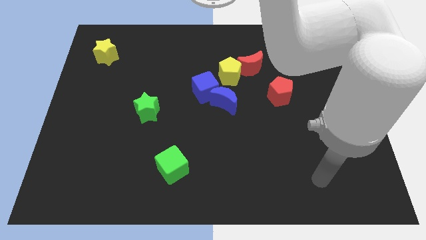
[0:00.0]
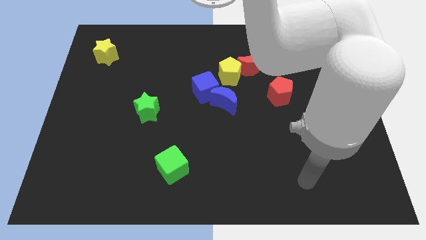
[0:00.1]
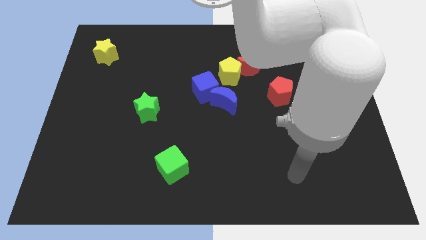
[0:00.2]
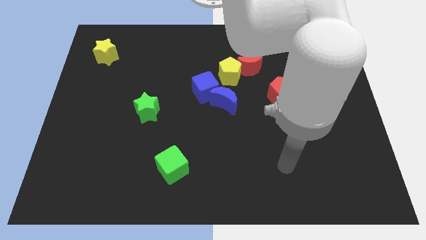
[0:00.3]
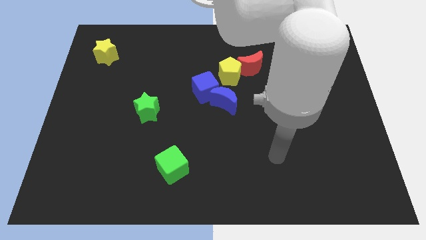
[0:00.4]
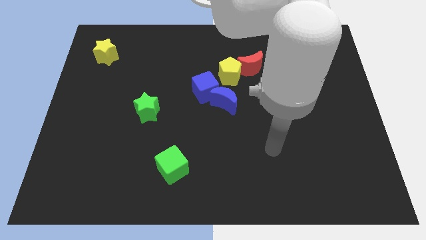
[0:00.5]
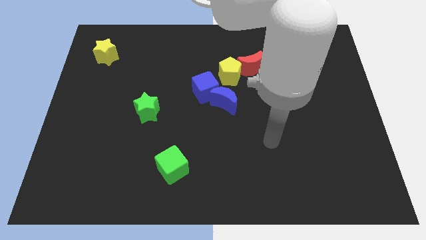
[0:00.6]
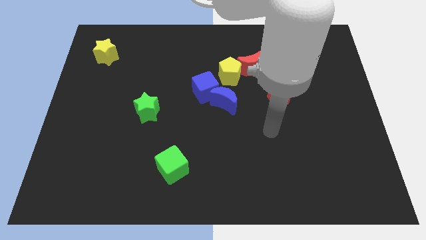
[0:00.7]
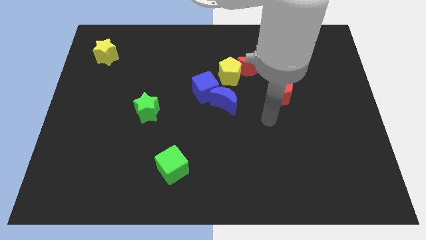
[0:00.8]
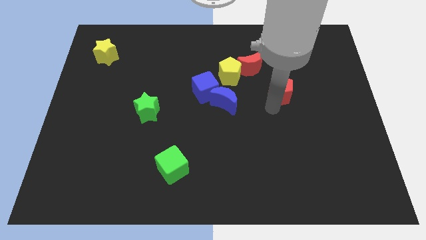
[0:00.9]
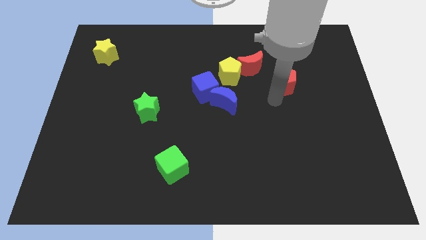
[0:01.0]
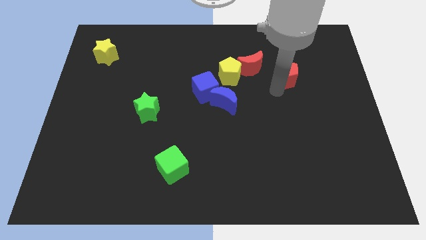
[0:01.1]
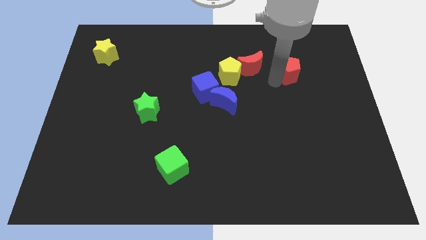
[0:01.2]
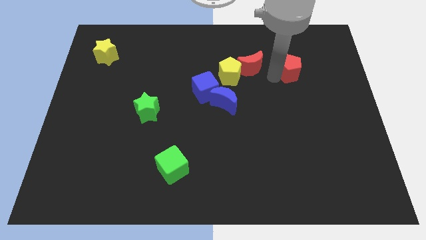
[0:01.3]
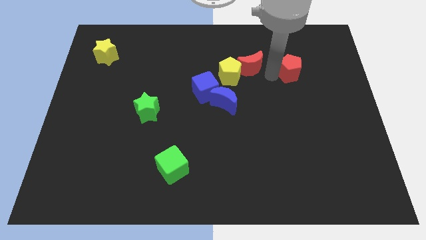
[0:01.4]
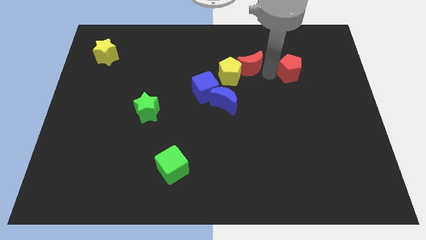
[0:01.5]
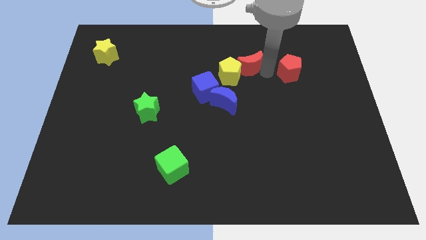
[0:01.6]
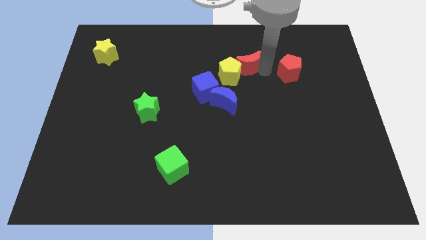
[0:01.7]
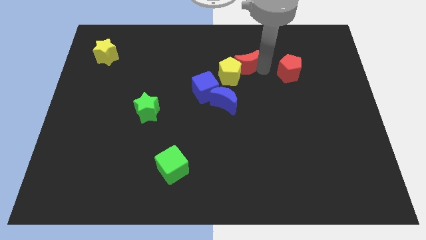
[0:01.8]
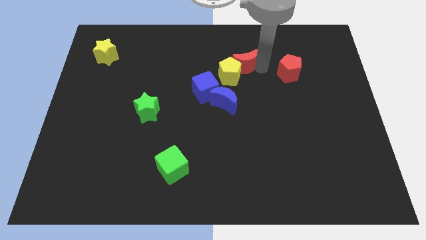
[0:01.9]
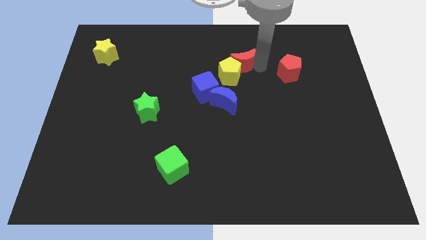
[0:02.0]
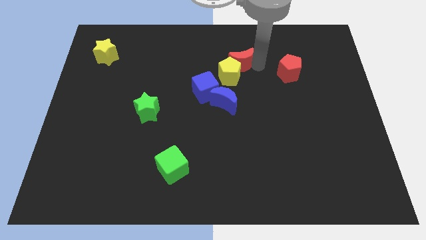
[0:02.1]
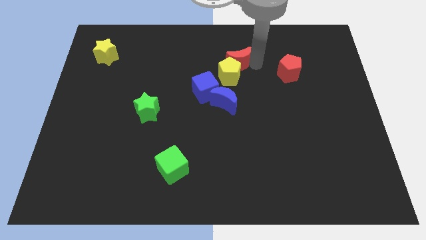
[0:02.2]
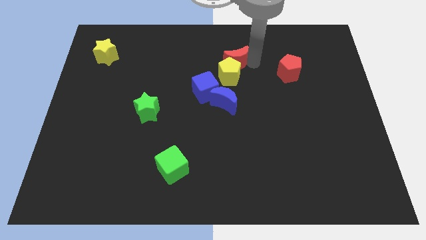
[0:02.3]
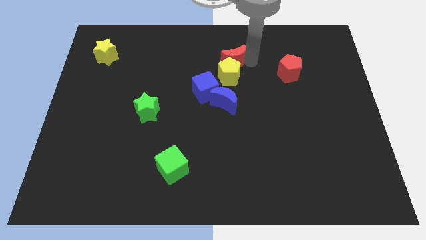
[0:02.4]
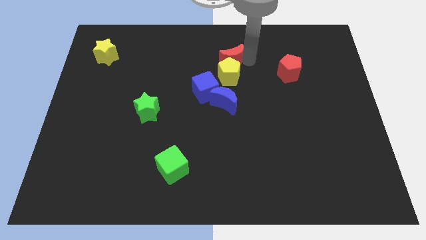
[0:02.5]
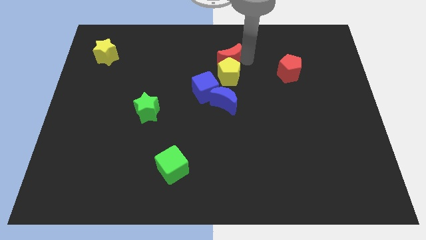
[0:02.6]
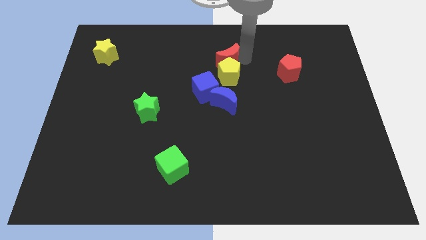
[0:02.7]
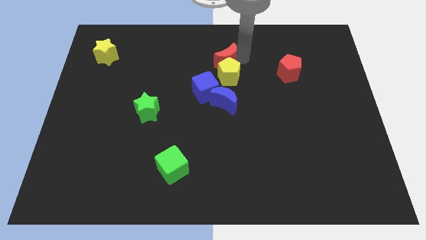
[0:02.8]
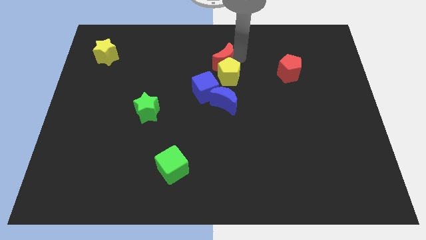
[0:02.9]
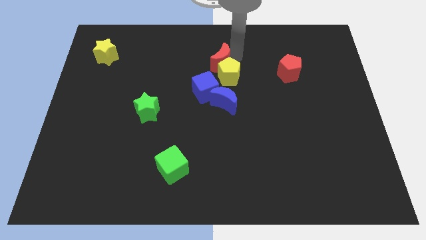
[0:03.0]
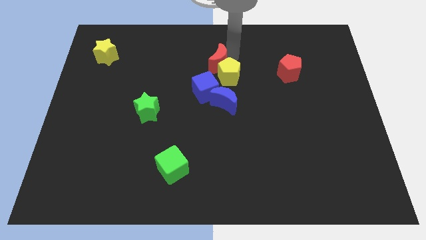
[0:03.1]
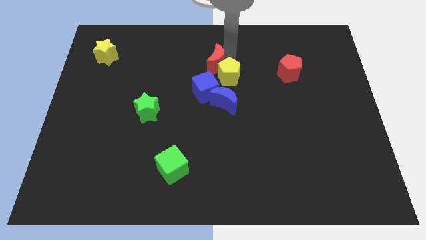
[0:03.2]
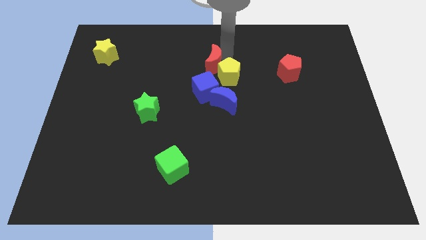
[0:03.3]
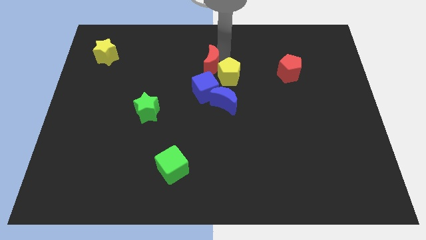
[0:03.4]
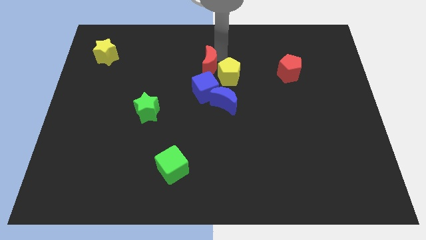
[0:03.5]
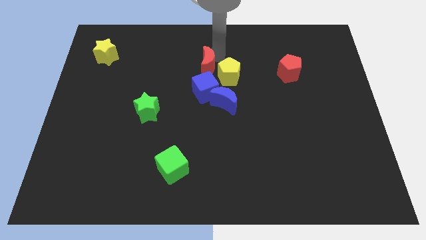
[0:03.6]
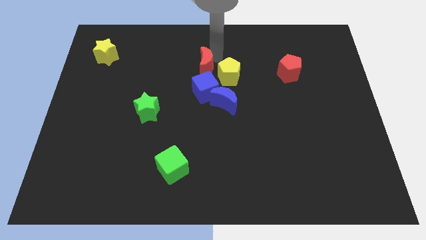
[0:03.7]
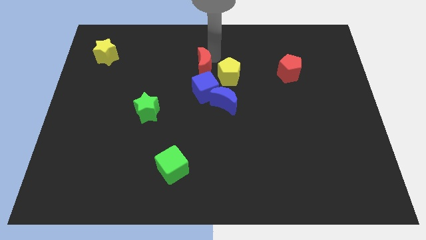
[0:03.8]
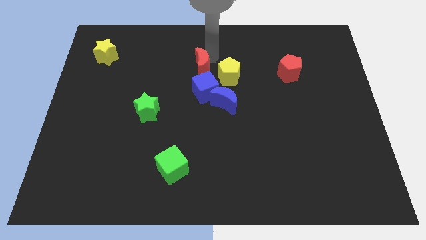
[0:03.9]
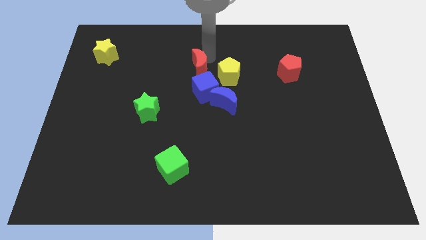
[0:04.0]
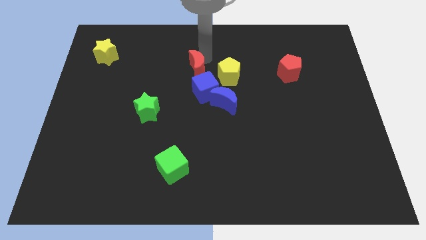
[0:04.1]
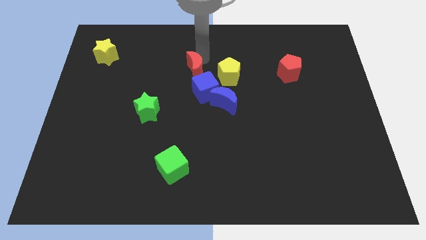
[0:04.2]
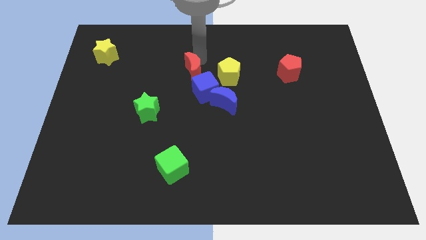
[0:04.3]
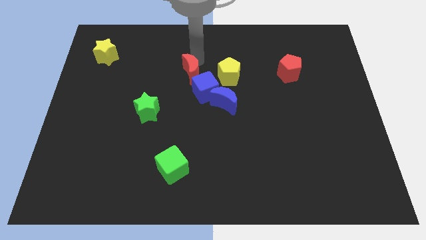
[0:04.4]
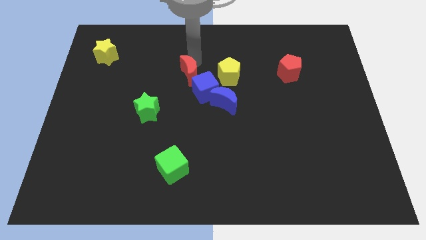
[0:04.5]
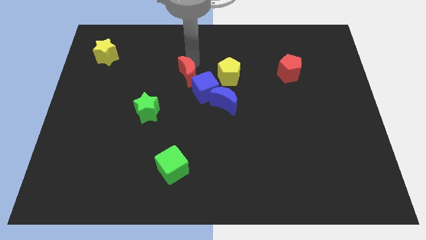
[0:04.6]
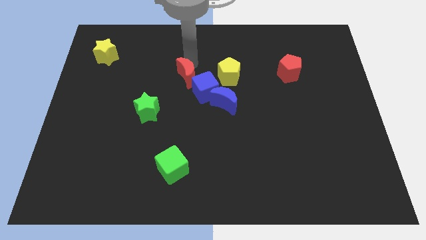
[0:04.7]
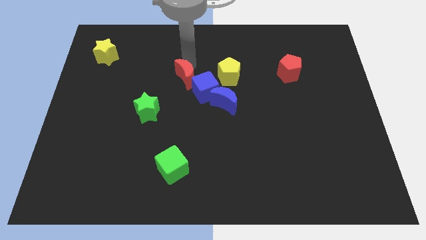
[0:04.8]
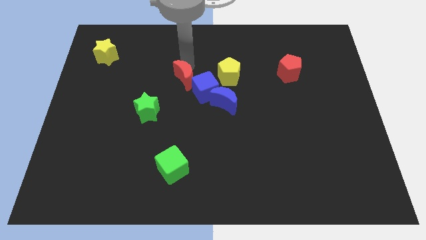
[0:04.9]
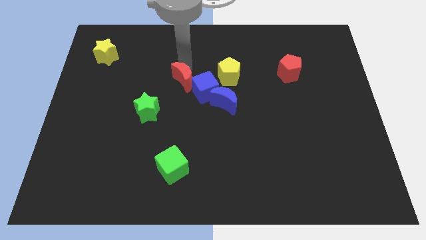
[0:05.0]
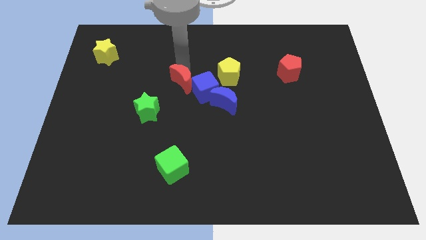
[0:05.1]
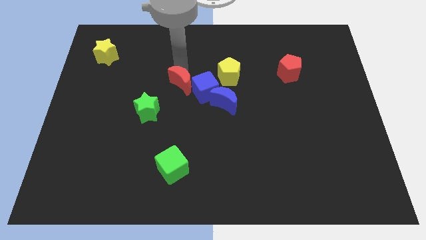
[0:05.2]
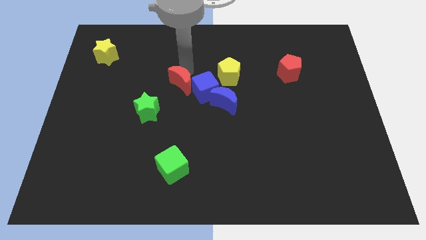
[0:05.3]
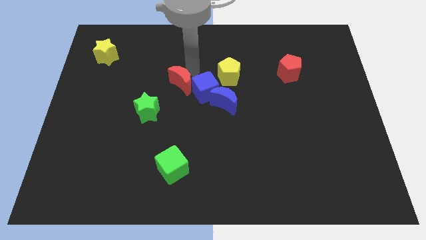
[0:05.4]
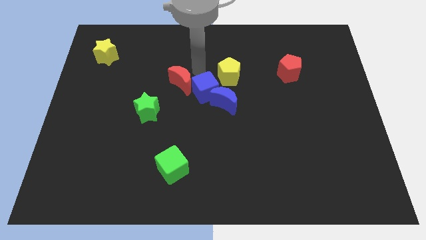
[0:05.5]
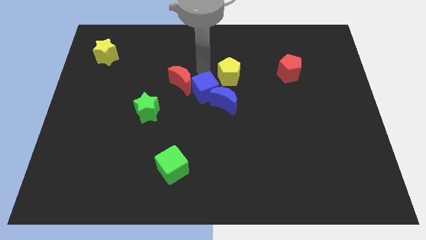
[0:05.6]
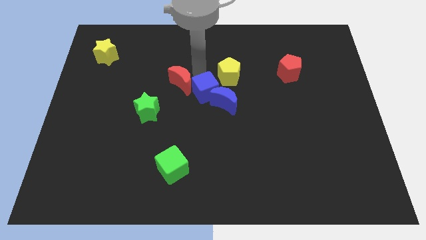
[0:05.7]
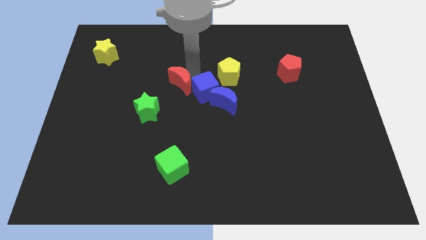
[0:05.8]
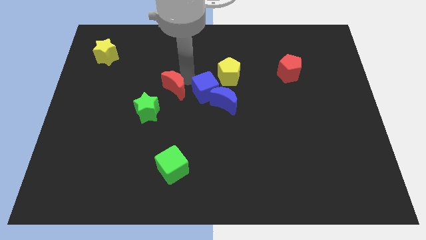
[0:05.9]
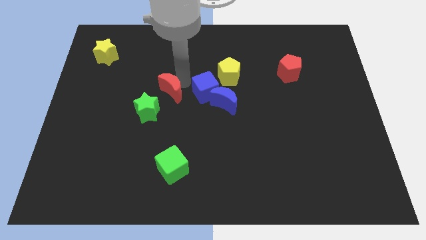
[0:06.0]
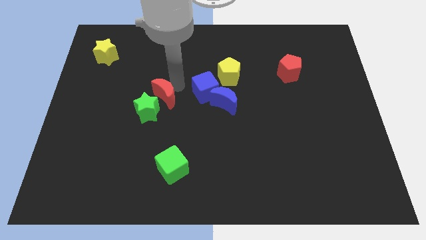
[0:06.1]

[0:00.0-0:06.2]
push the red moon towards the green star

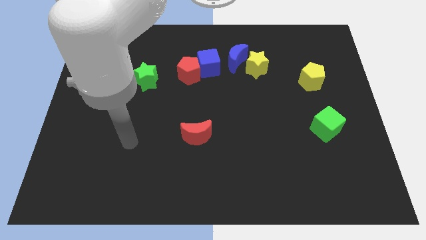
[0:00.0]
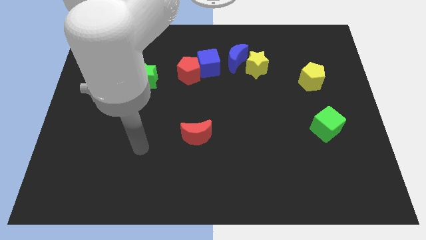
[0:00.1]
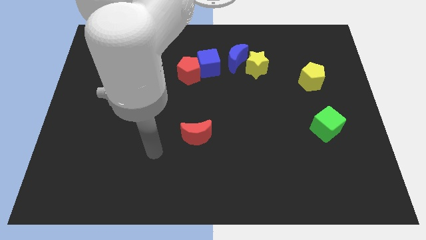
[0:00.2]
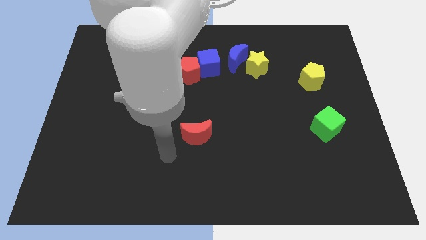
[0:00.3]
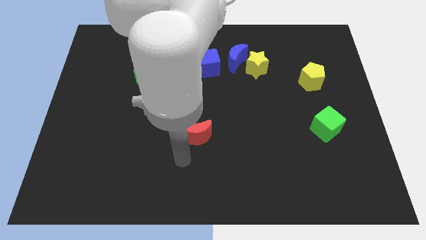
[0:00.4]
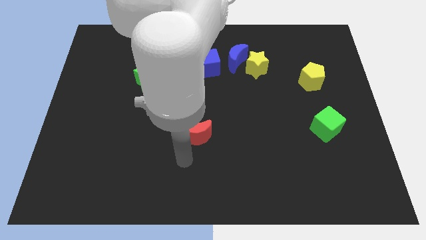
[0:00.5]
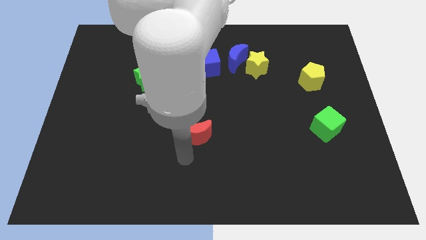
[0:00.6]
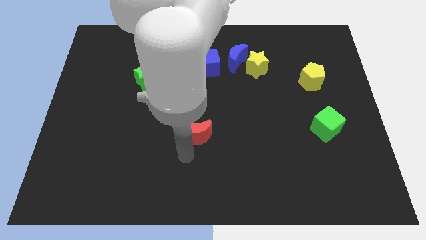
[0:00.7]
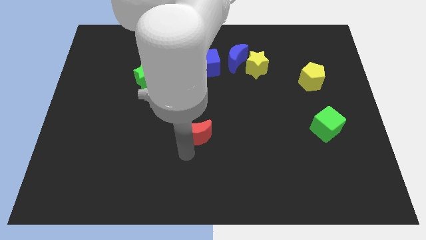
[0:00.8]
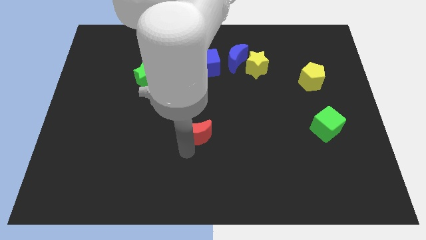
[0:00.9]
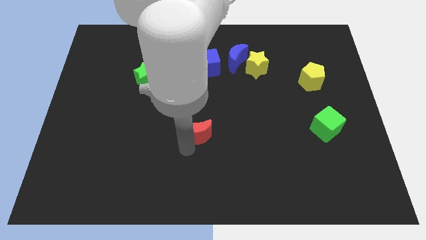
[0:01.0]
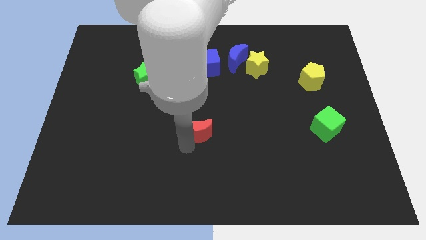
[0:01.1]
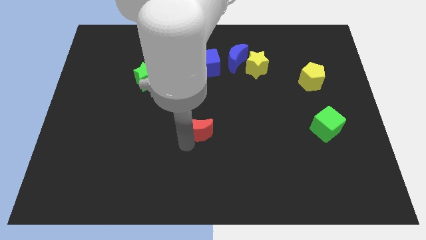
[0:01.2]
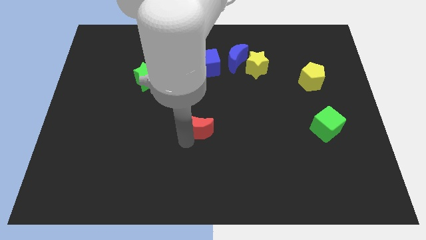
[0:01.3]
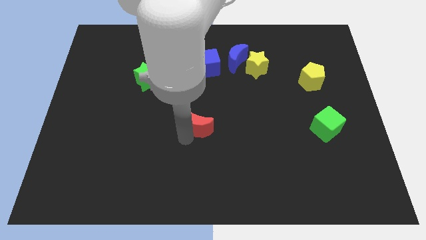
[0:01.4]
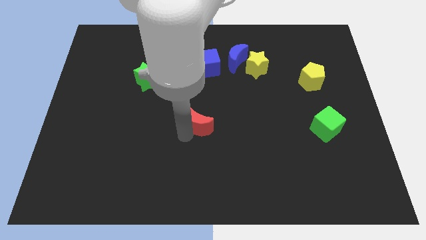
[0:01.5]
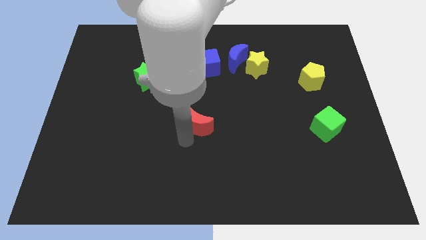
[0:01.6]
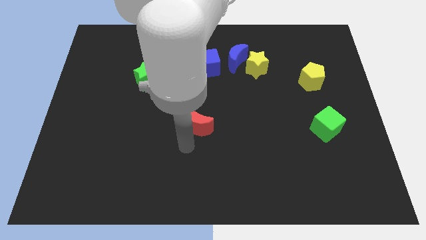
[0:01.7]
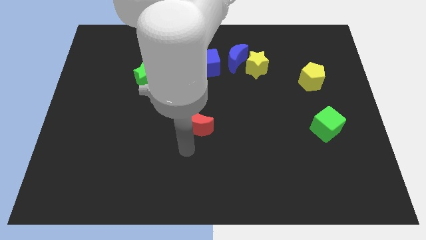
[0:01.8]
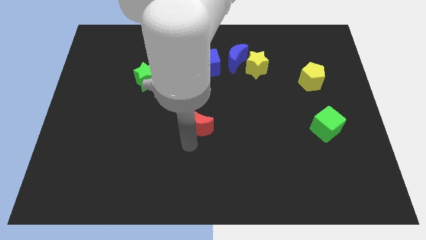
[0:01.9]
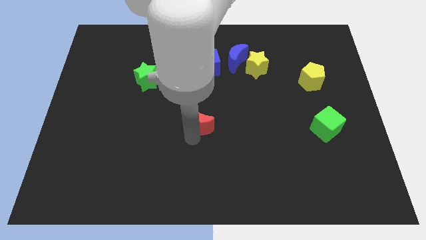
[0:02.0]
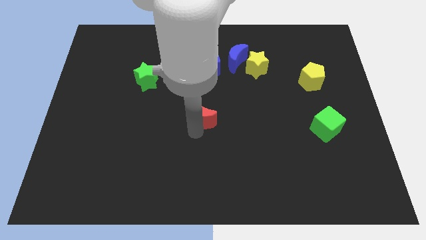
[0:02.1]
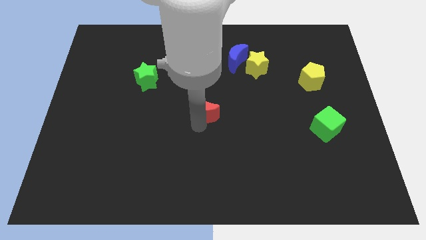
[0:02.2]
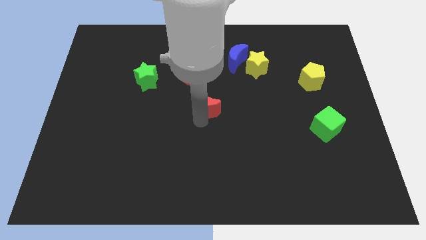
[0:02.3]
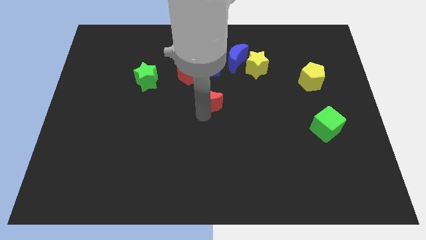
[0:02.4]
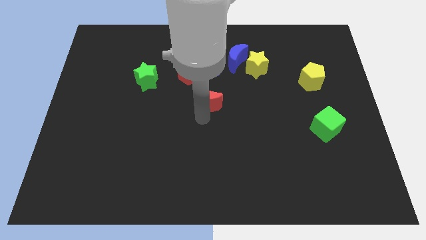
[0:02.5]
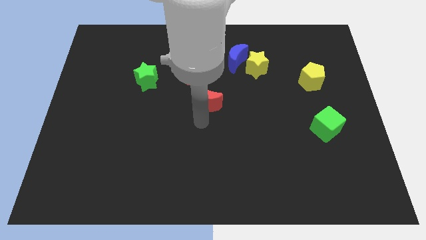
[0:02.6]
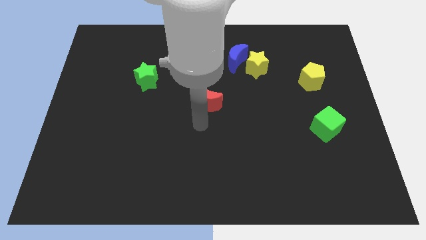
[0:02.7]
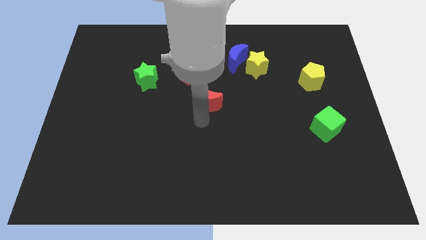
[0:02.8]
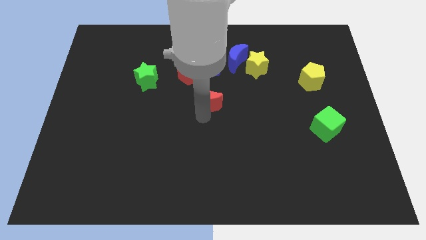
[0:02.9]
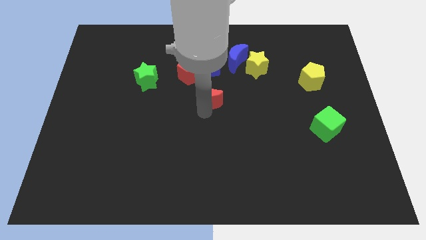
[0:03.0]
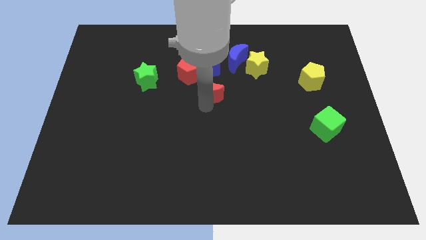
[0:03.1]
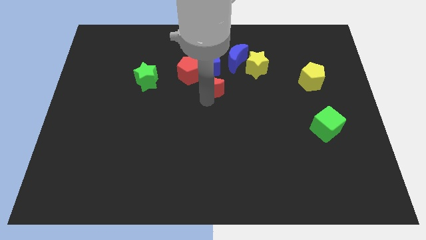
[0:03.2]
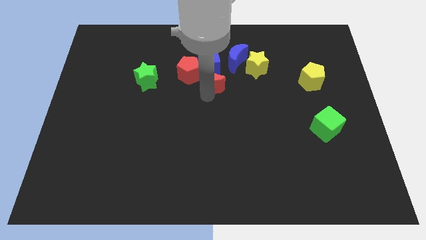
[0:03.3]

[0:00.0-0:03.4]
put the red moon close to the blue cube
